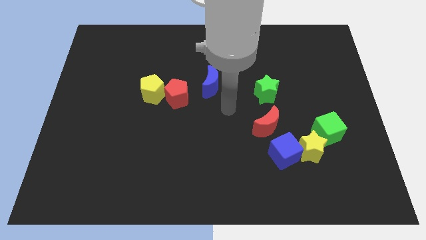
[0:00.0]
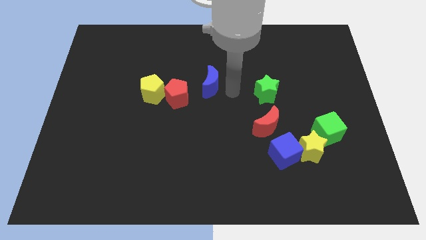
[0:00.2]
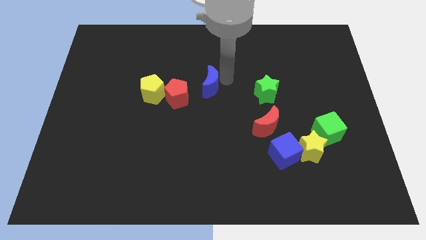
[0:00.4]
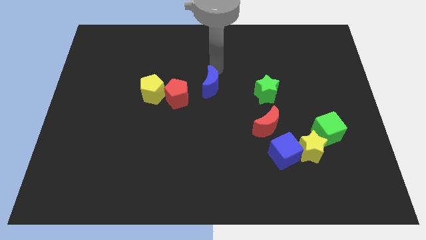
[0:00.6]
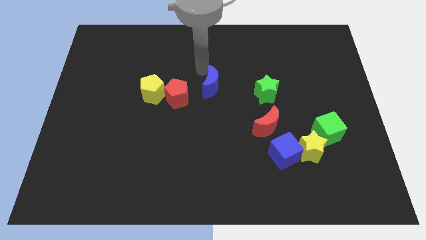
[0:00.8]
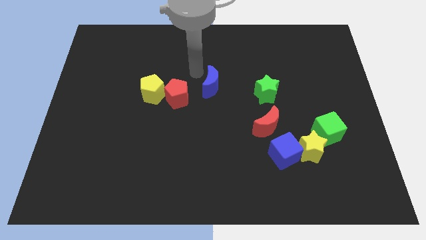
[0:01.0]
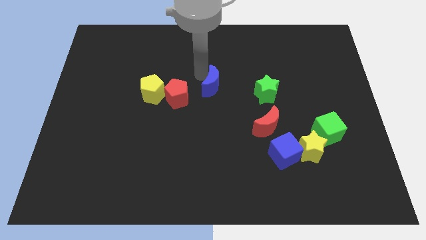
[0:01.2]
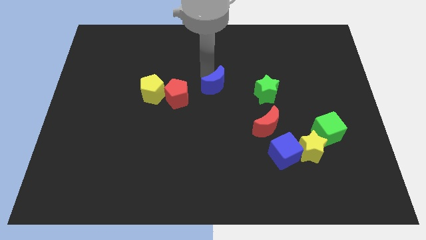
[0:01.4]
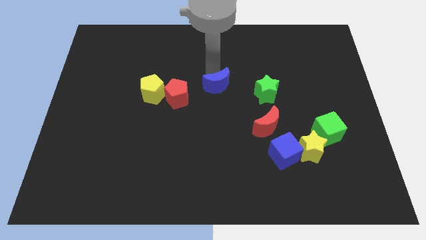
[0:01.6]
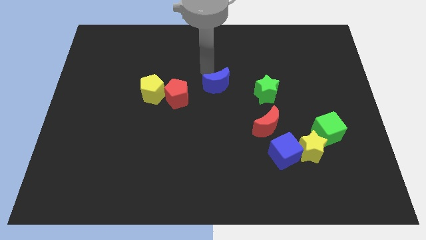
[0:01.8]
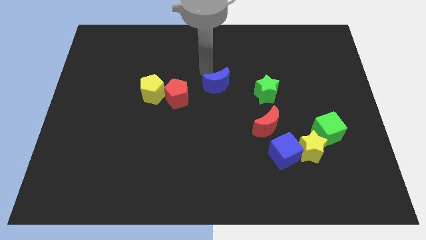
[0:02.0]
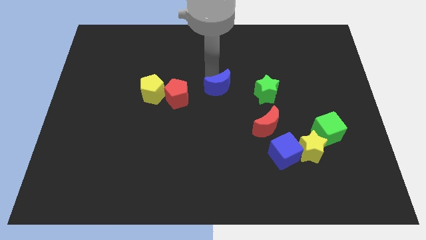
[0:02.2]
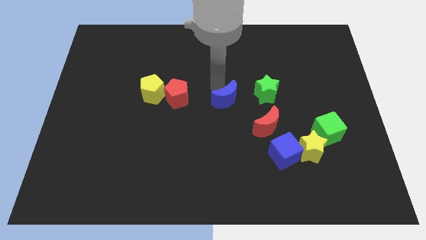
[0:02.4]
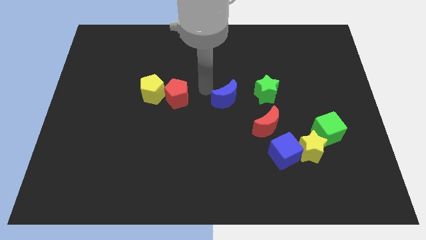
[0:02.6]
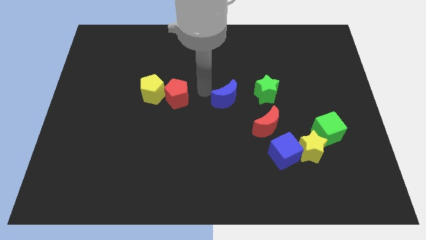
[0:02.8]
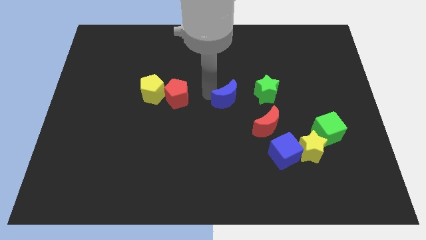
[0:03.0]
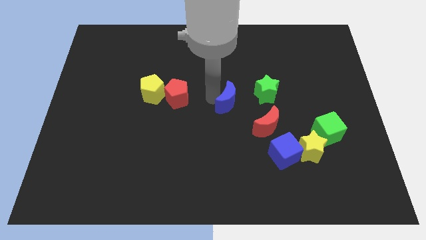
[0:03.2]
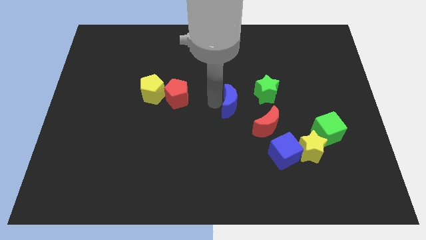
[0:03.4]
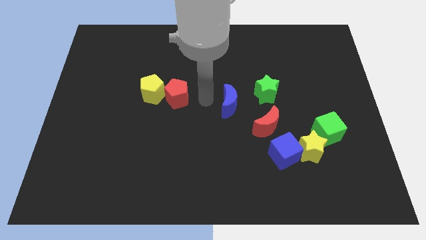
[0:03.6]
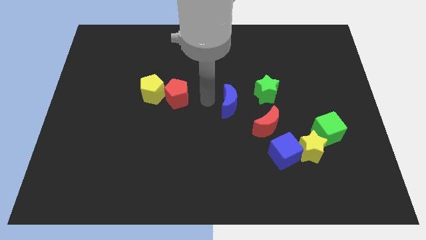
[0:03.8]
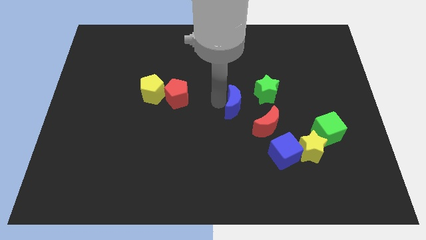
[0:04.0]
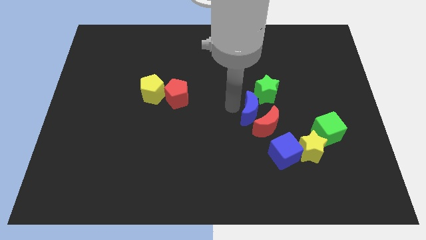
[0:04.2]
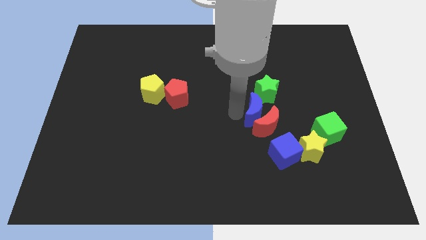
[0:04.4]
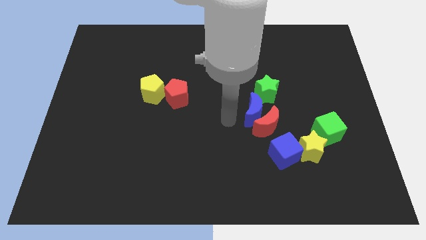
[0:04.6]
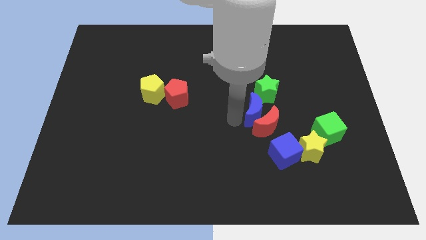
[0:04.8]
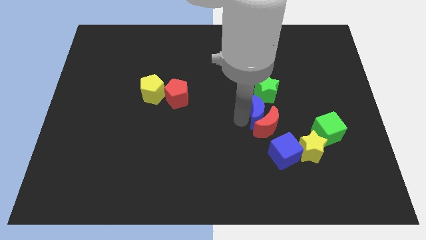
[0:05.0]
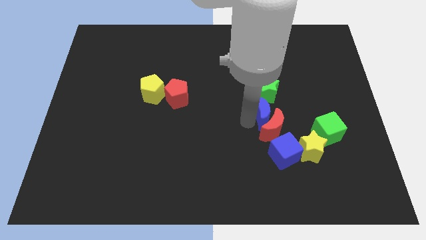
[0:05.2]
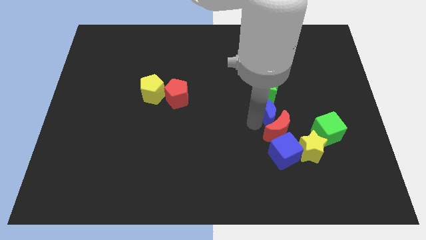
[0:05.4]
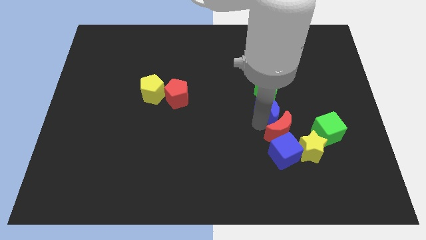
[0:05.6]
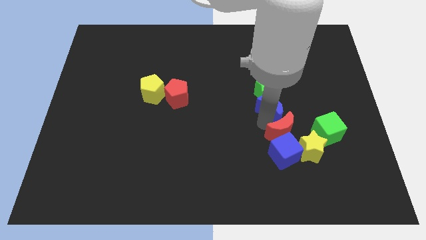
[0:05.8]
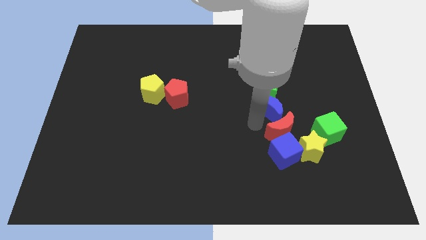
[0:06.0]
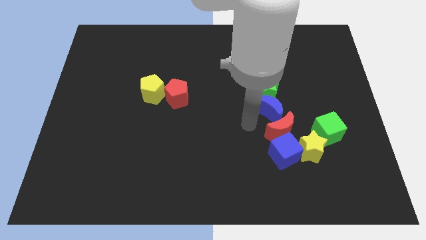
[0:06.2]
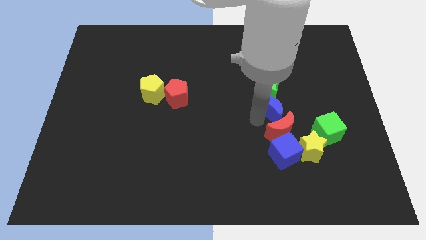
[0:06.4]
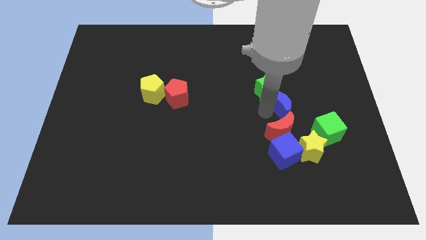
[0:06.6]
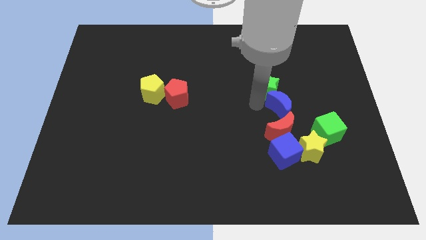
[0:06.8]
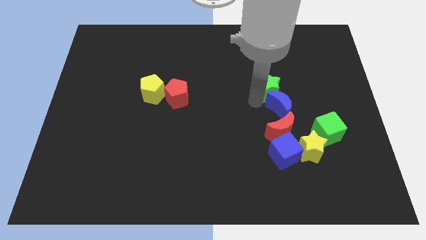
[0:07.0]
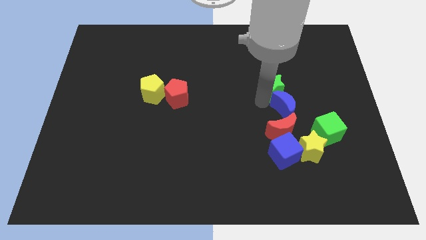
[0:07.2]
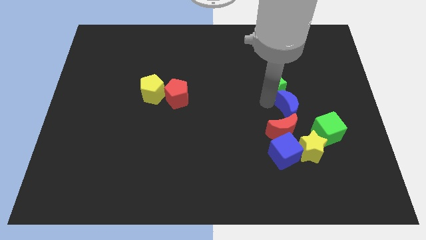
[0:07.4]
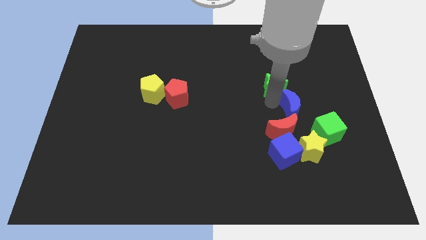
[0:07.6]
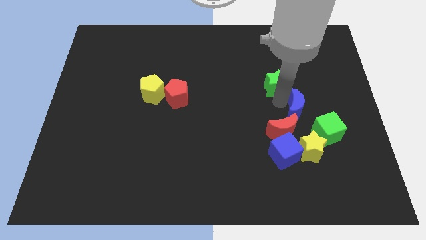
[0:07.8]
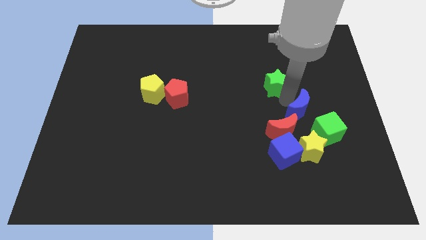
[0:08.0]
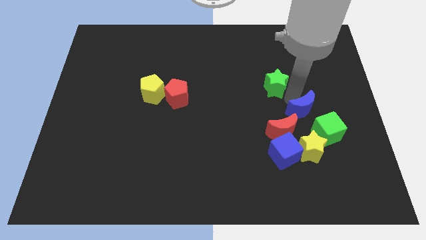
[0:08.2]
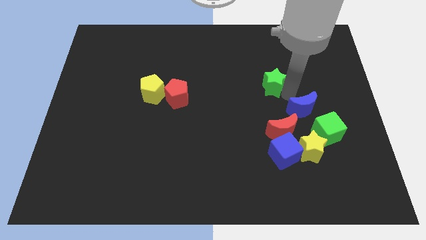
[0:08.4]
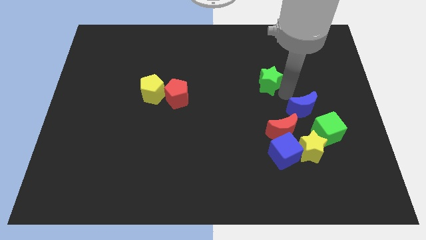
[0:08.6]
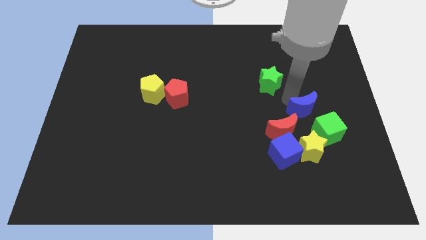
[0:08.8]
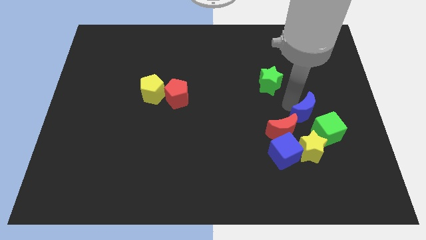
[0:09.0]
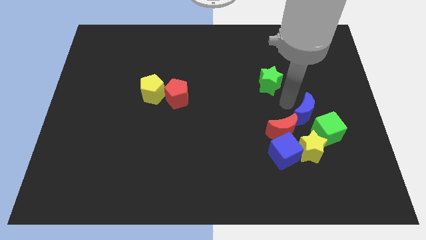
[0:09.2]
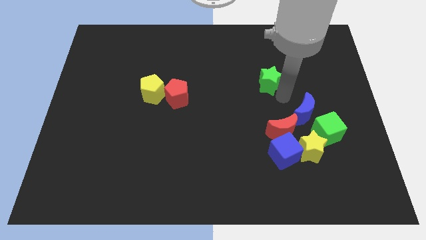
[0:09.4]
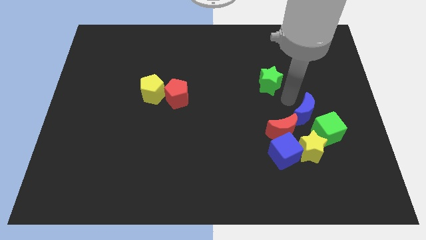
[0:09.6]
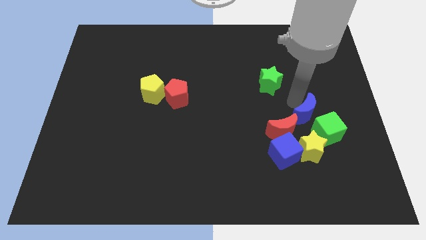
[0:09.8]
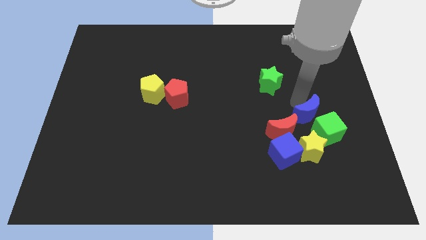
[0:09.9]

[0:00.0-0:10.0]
put the blue moon next to the green cube

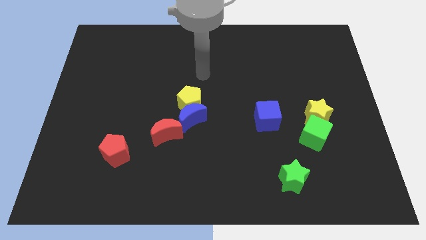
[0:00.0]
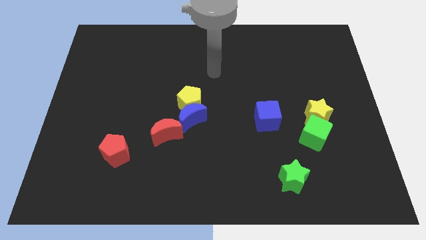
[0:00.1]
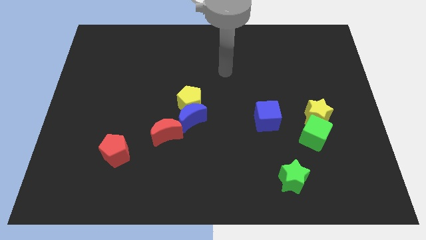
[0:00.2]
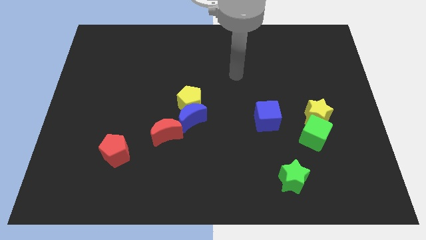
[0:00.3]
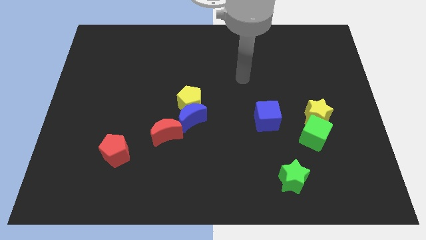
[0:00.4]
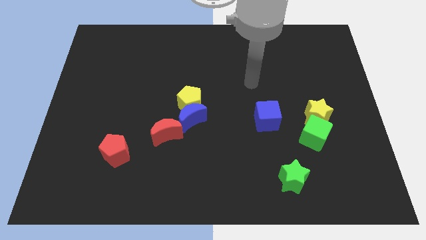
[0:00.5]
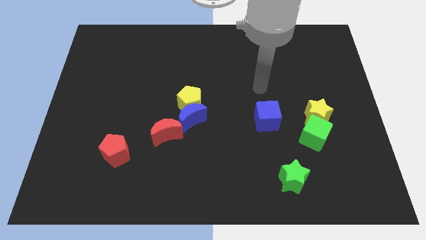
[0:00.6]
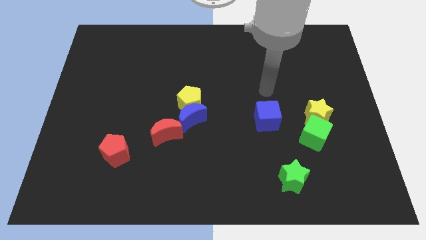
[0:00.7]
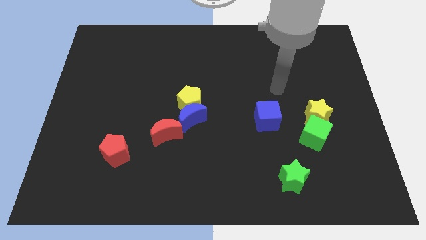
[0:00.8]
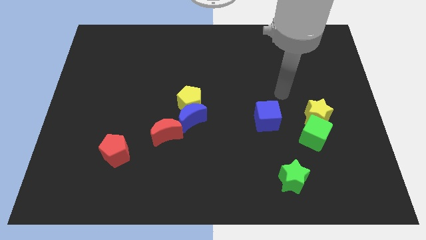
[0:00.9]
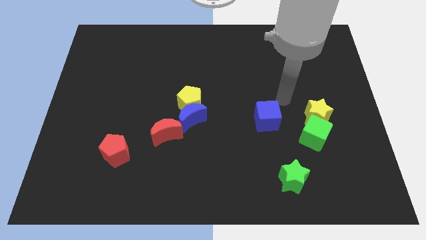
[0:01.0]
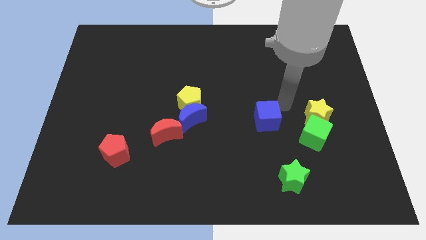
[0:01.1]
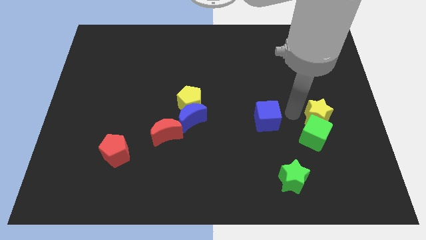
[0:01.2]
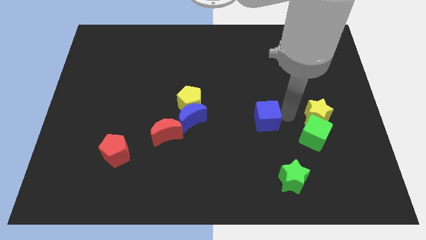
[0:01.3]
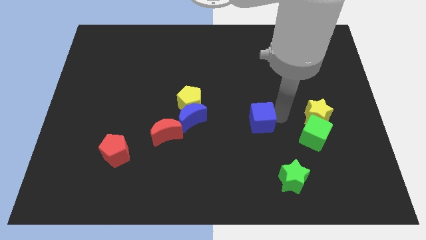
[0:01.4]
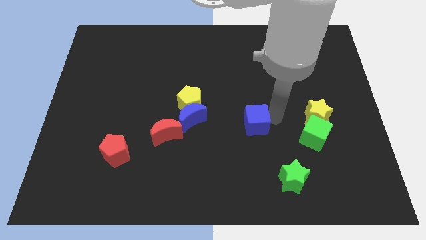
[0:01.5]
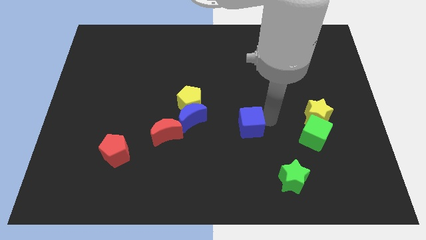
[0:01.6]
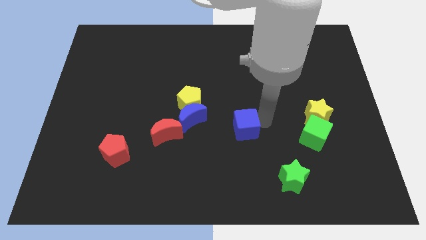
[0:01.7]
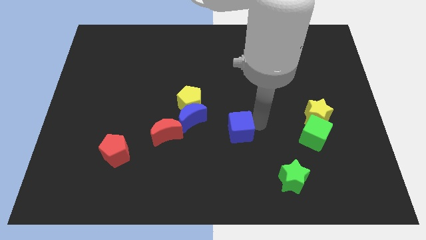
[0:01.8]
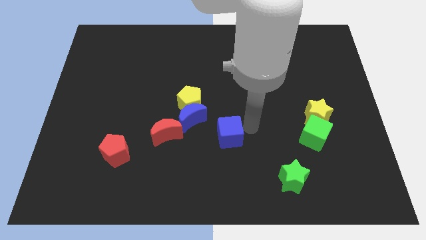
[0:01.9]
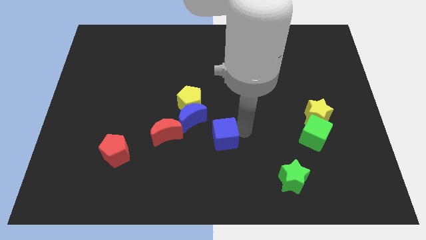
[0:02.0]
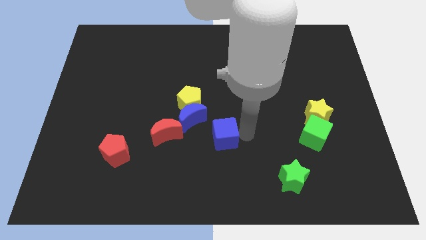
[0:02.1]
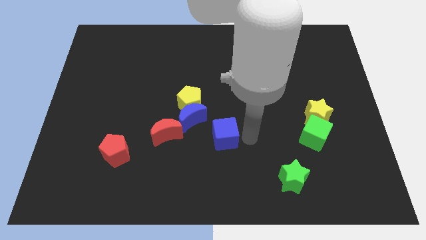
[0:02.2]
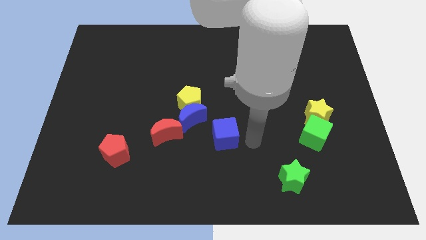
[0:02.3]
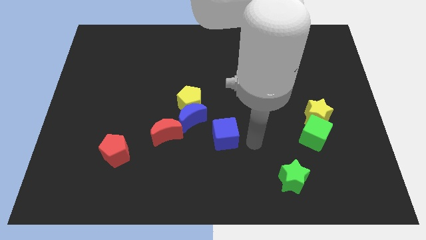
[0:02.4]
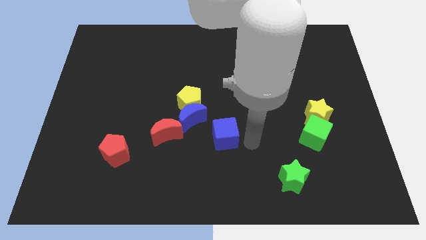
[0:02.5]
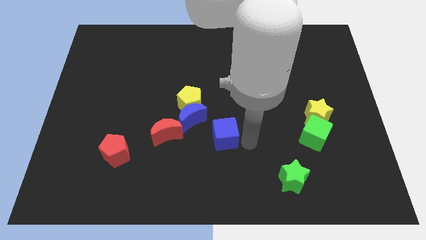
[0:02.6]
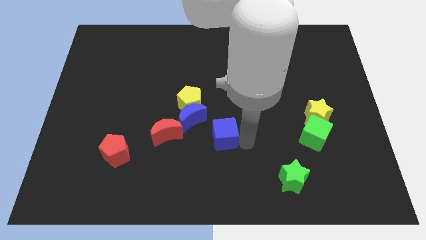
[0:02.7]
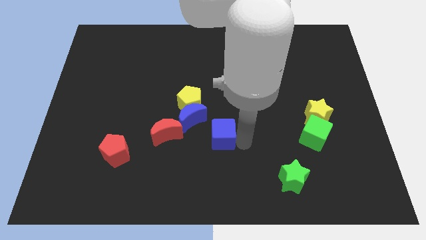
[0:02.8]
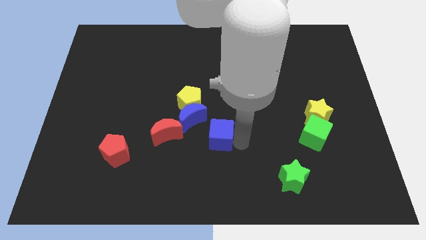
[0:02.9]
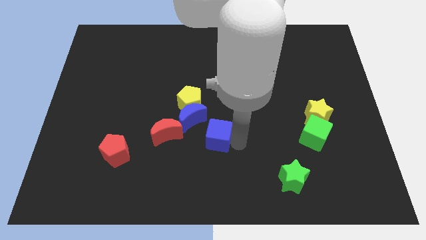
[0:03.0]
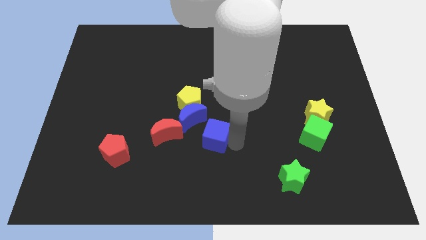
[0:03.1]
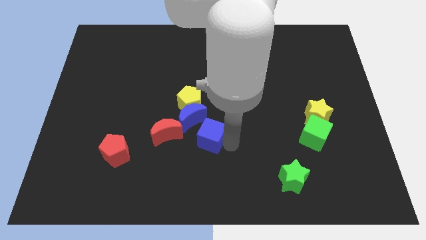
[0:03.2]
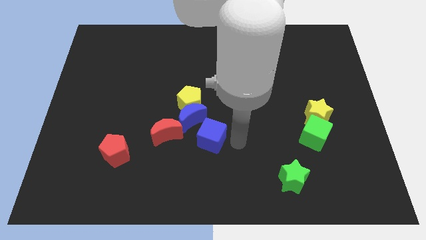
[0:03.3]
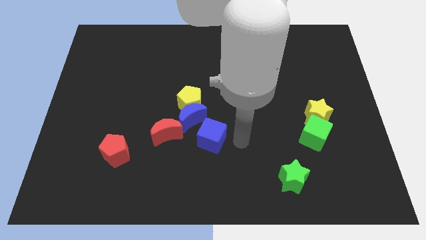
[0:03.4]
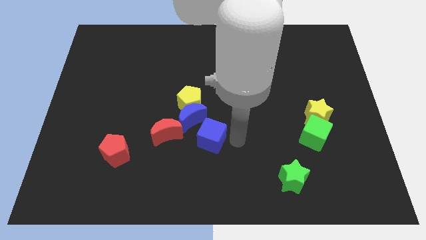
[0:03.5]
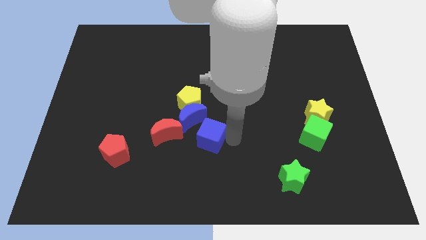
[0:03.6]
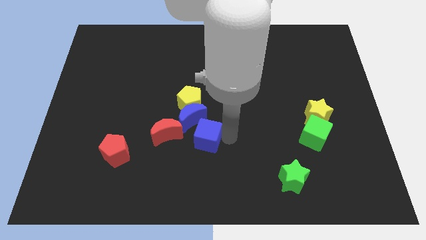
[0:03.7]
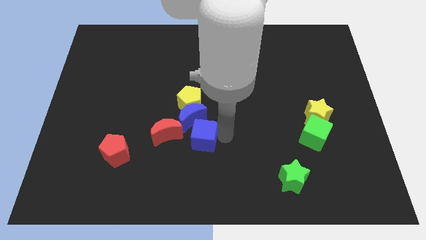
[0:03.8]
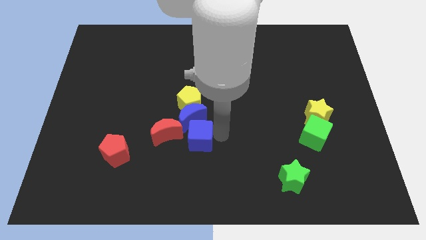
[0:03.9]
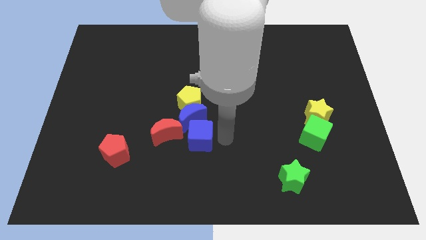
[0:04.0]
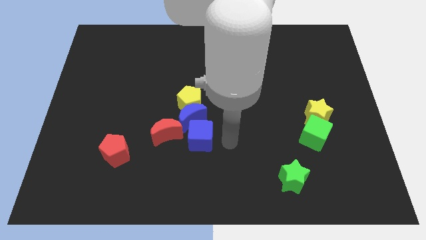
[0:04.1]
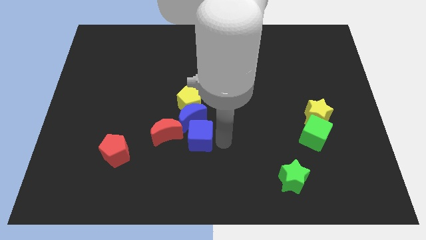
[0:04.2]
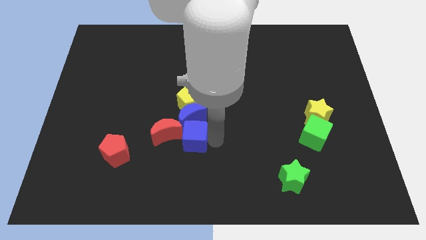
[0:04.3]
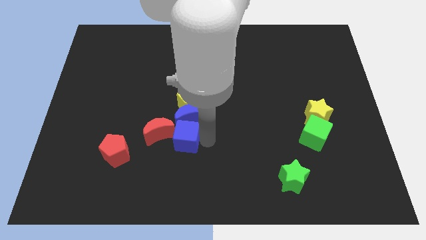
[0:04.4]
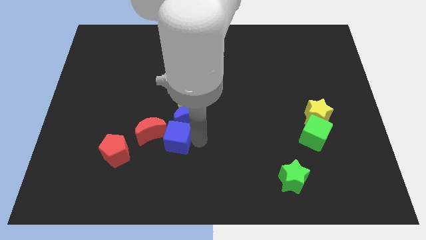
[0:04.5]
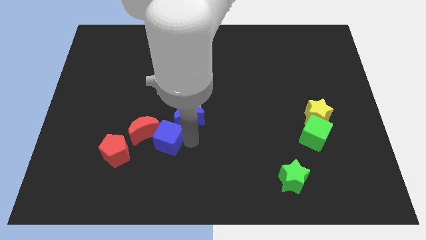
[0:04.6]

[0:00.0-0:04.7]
slide the blue cube close to the red moon
